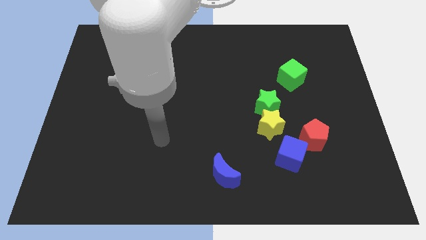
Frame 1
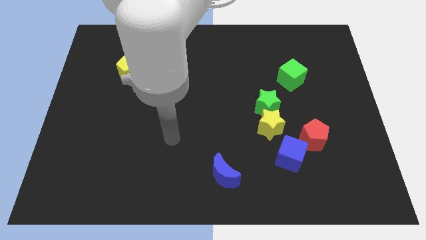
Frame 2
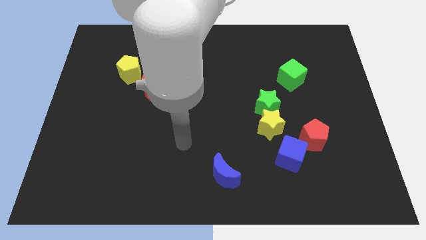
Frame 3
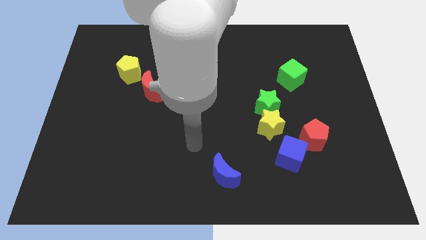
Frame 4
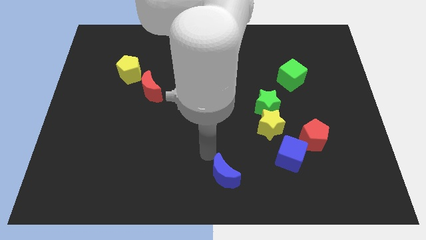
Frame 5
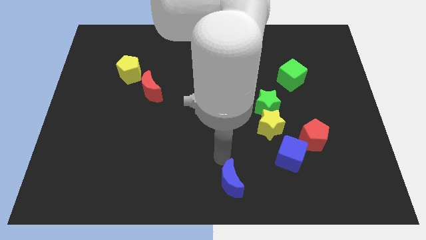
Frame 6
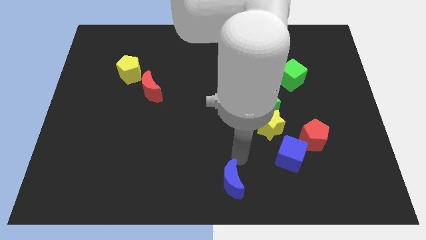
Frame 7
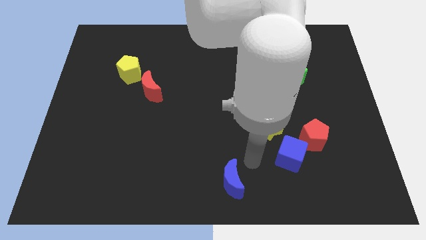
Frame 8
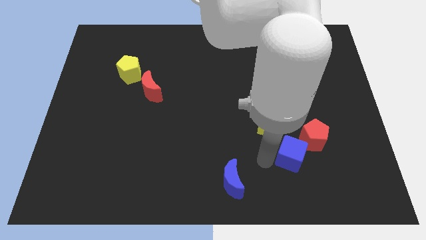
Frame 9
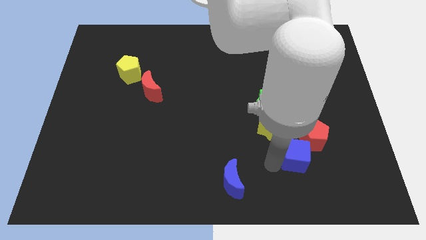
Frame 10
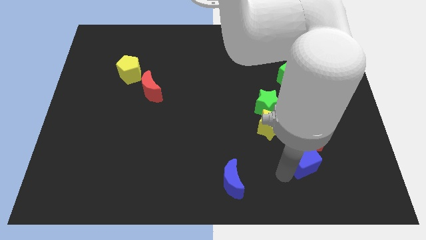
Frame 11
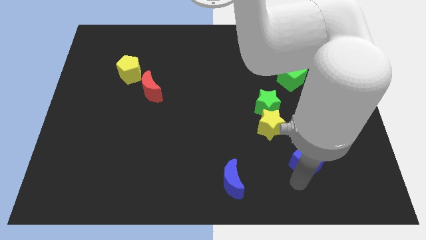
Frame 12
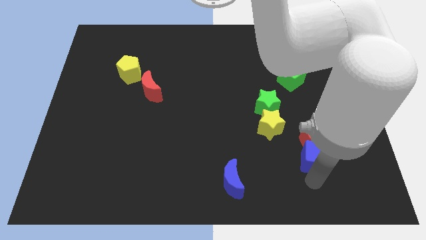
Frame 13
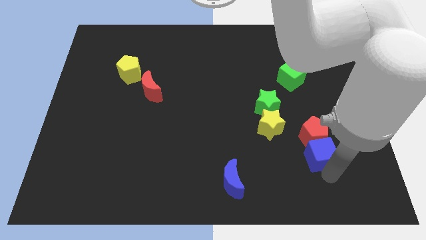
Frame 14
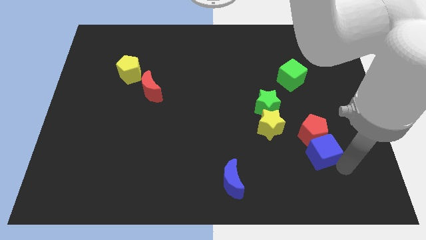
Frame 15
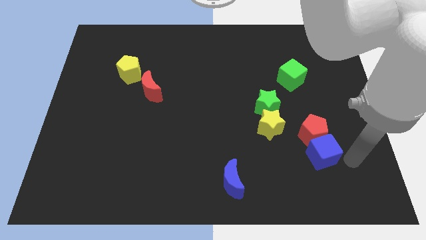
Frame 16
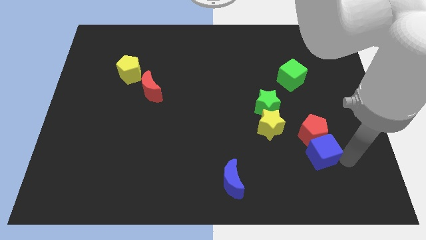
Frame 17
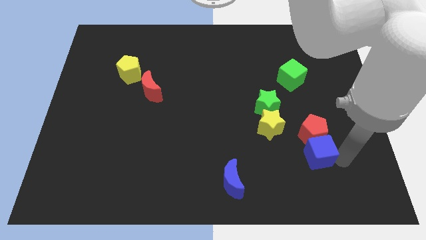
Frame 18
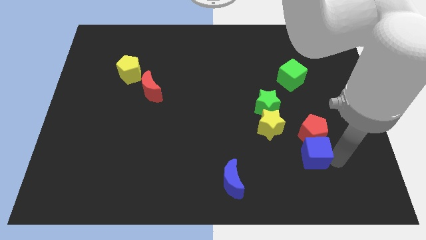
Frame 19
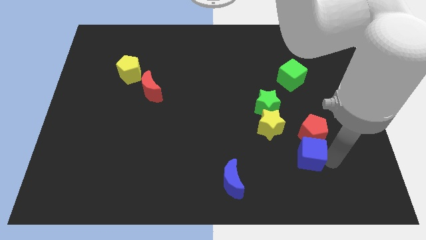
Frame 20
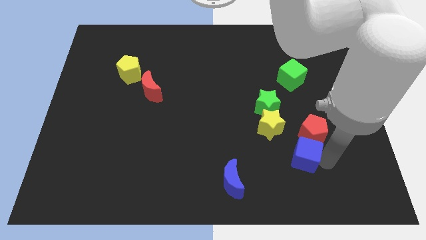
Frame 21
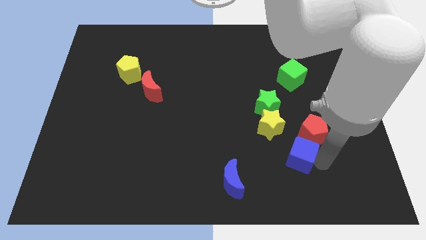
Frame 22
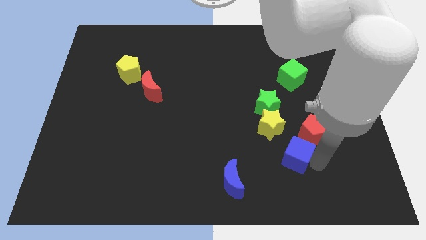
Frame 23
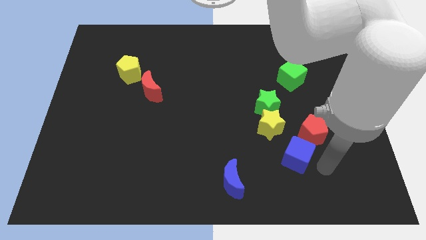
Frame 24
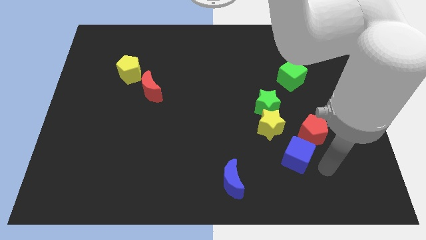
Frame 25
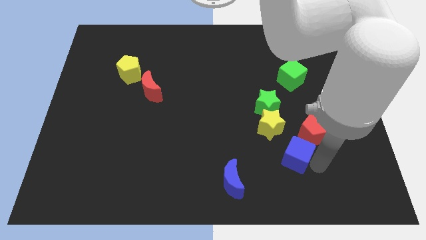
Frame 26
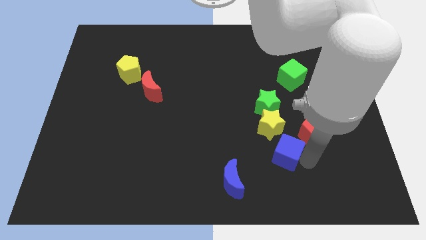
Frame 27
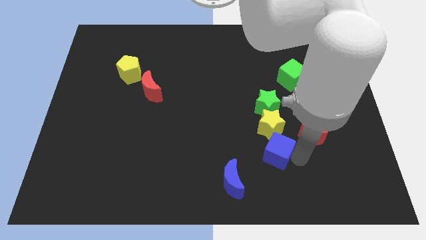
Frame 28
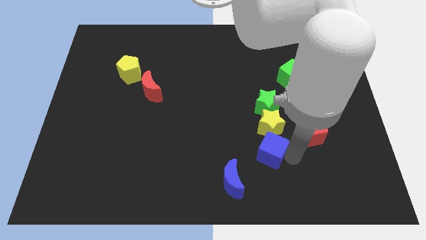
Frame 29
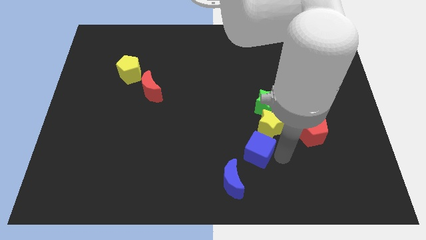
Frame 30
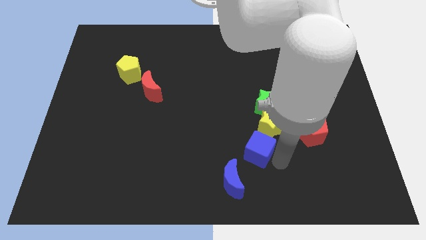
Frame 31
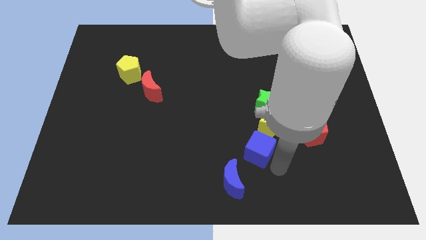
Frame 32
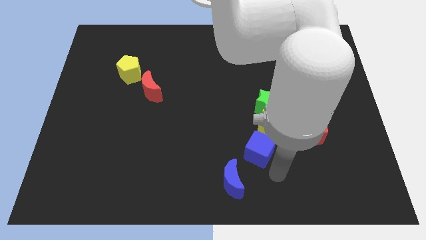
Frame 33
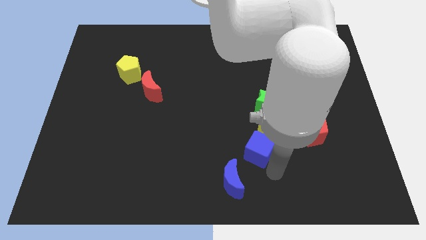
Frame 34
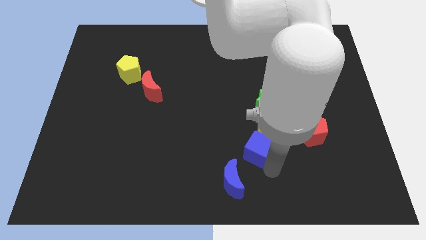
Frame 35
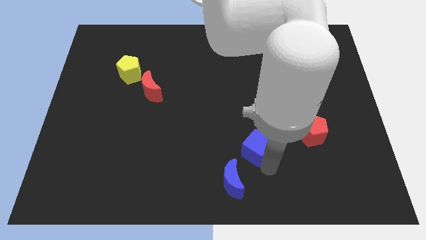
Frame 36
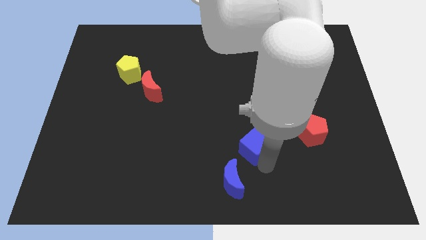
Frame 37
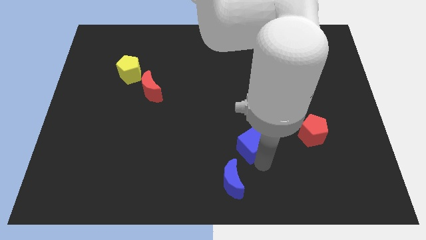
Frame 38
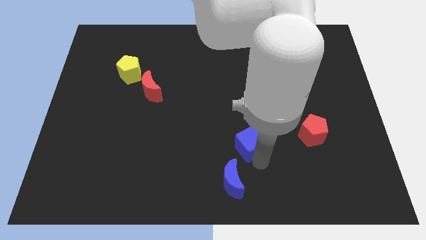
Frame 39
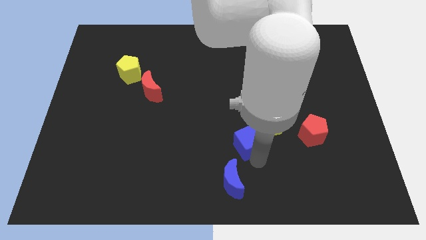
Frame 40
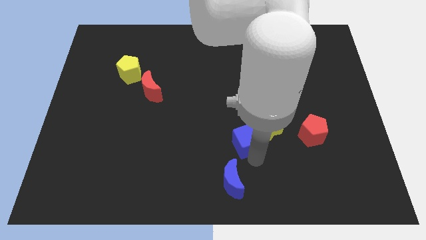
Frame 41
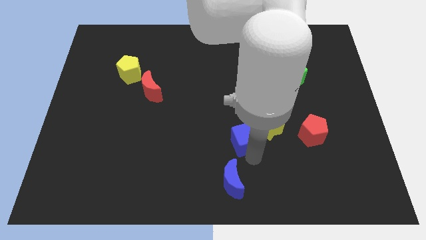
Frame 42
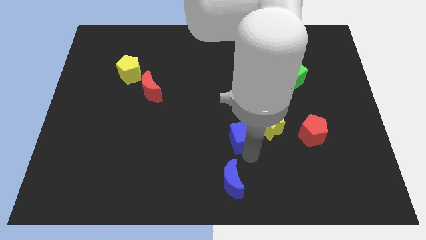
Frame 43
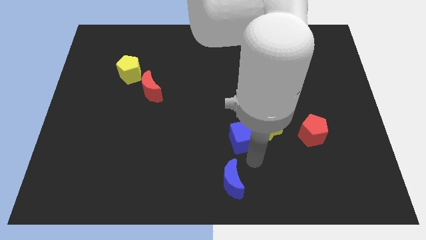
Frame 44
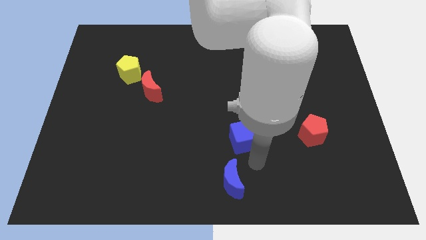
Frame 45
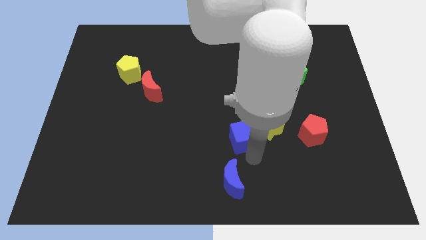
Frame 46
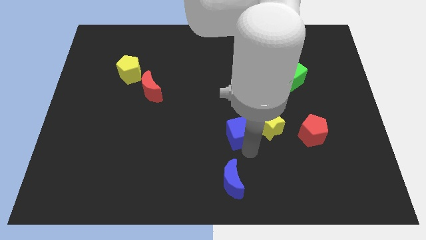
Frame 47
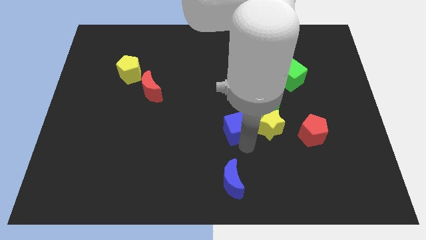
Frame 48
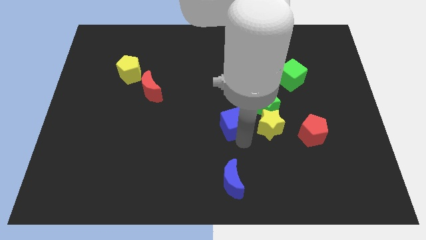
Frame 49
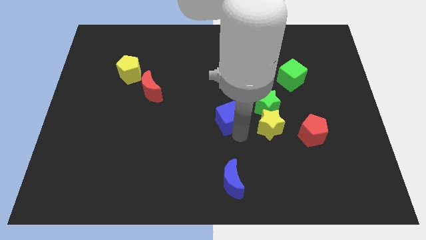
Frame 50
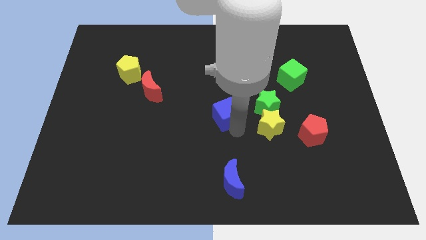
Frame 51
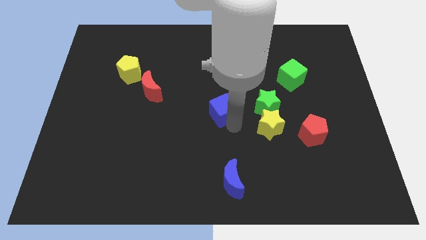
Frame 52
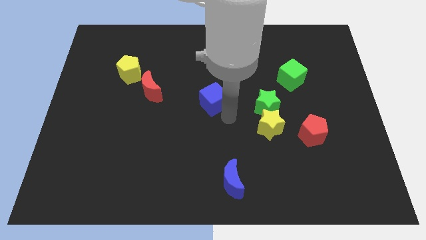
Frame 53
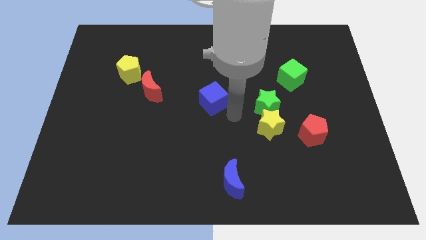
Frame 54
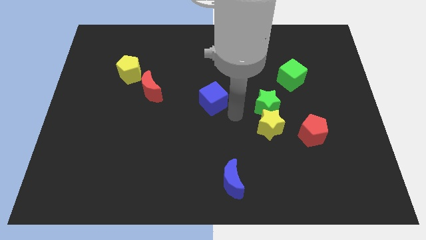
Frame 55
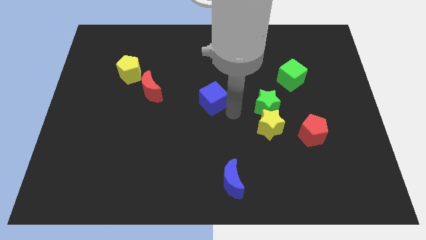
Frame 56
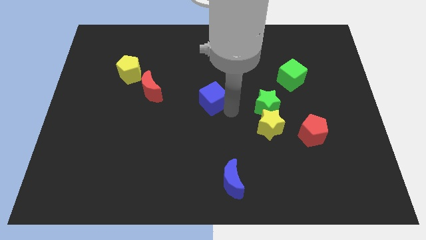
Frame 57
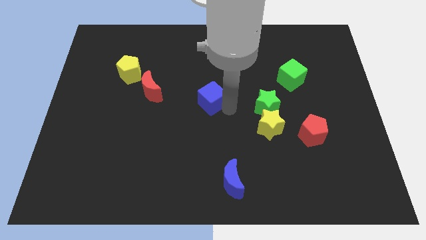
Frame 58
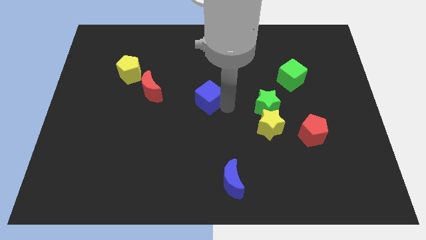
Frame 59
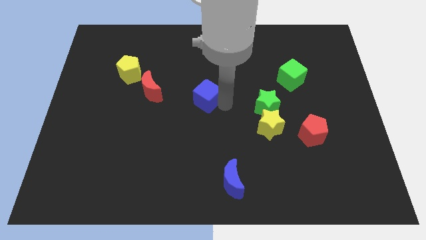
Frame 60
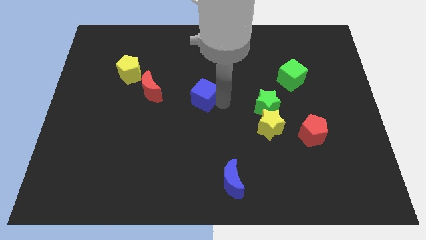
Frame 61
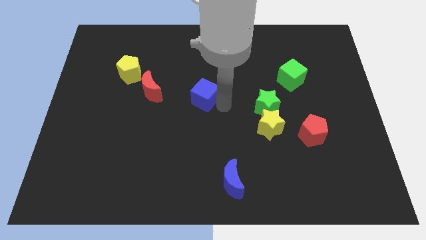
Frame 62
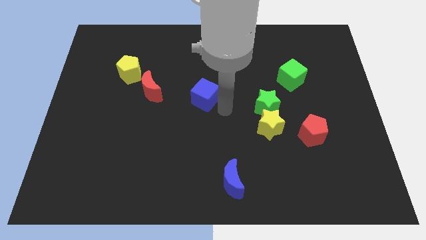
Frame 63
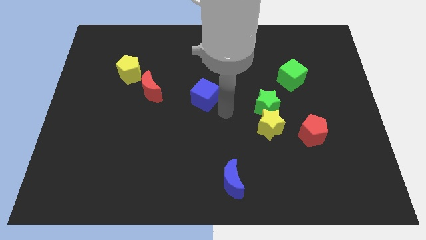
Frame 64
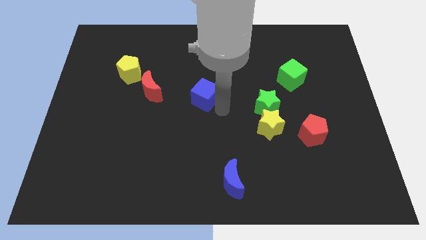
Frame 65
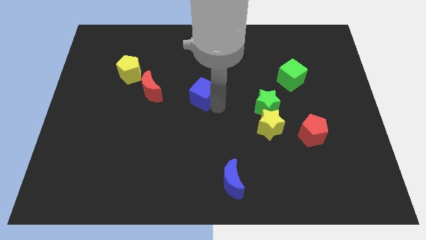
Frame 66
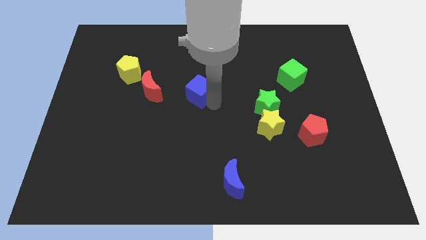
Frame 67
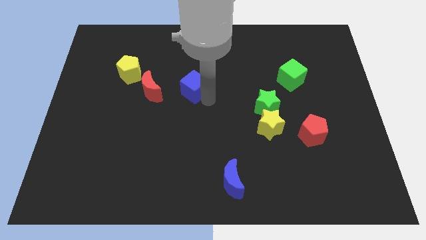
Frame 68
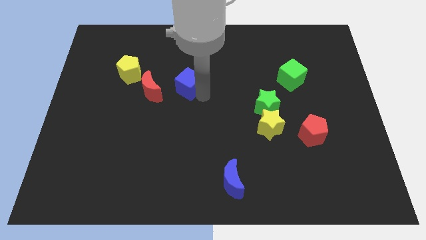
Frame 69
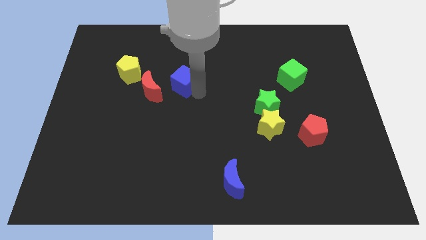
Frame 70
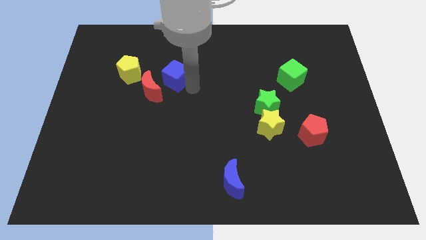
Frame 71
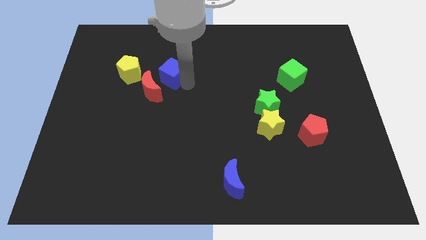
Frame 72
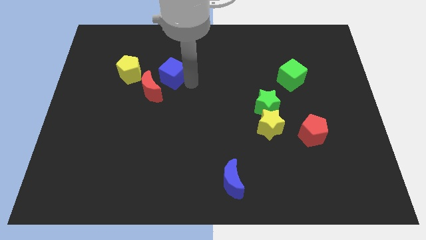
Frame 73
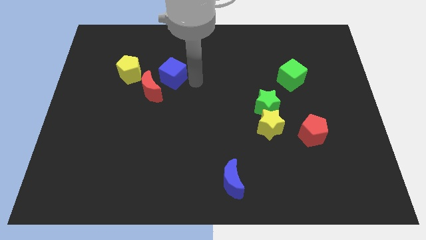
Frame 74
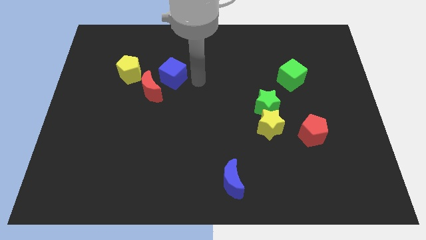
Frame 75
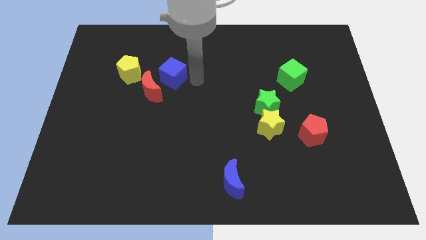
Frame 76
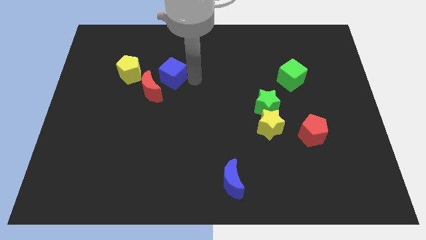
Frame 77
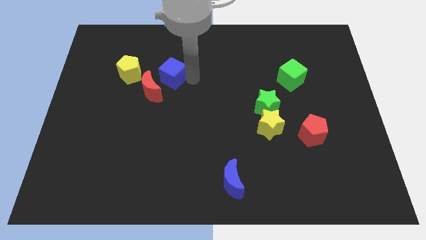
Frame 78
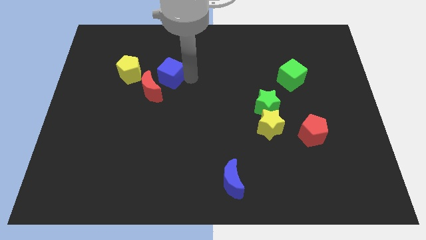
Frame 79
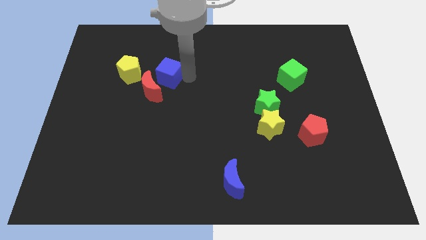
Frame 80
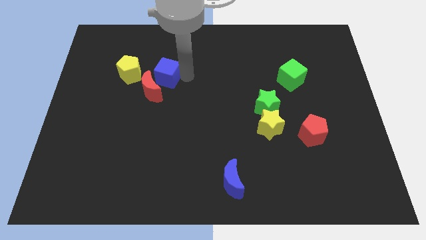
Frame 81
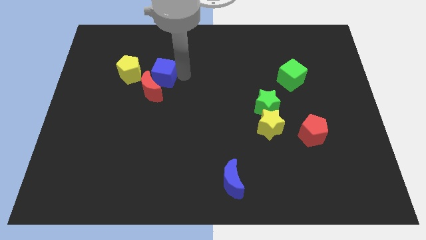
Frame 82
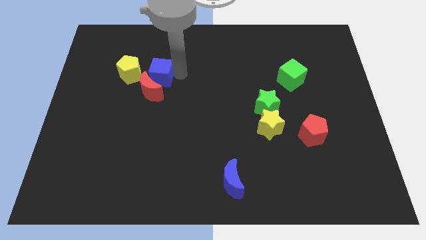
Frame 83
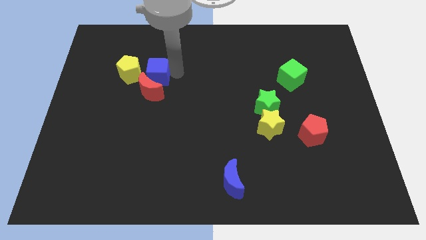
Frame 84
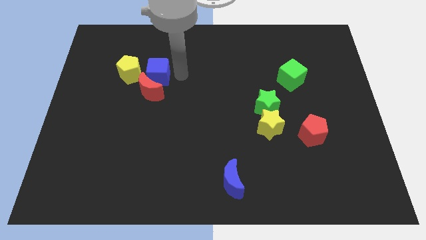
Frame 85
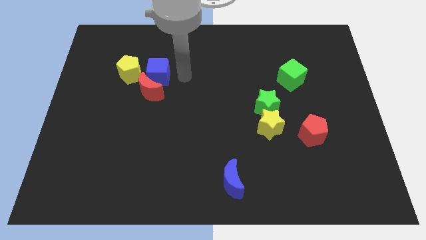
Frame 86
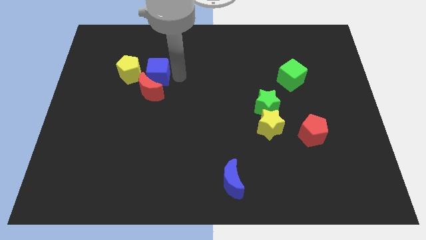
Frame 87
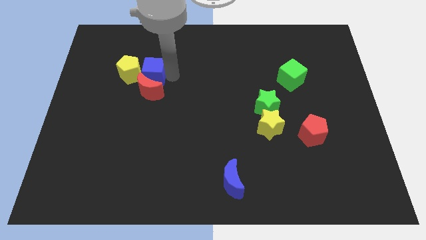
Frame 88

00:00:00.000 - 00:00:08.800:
push the blue cube next to the yellow pentagon
